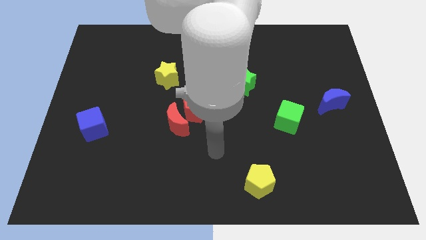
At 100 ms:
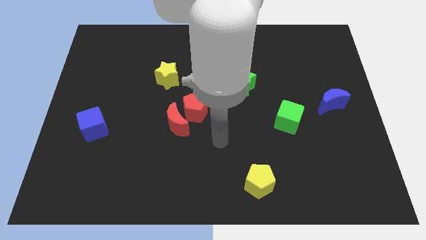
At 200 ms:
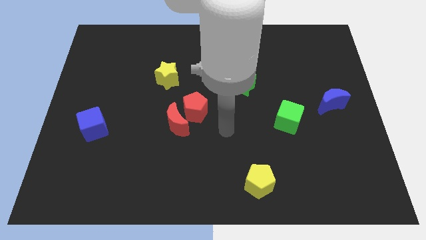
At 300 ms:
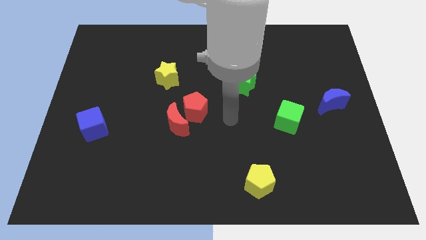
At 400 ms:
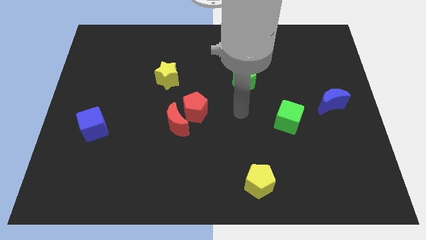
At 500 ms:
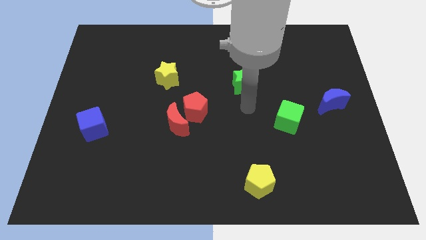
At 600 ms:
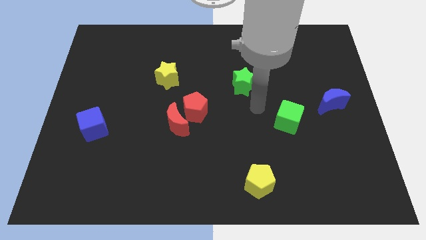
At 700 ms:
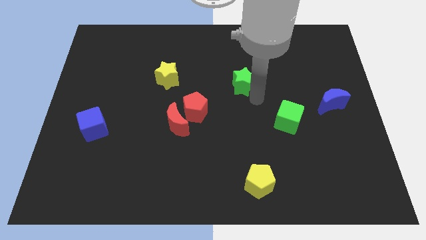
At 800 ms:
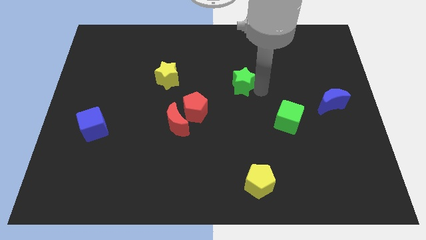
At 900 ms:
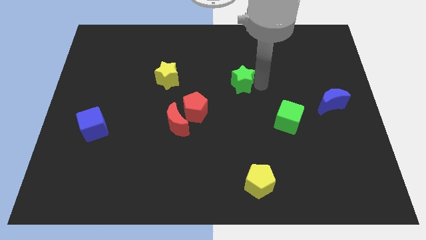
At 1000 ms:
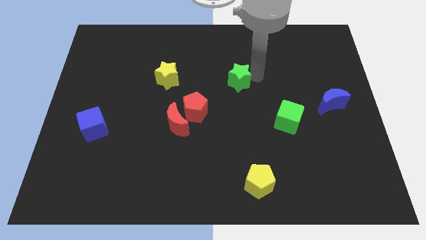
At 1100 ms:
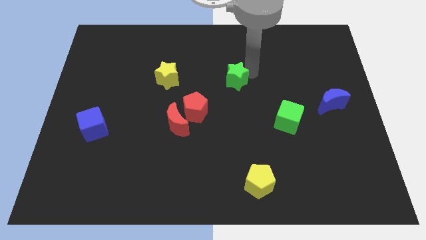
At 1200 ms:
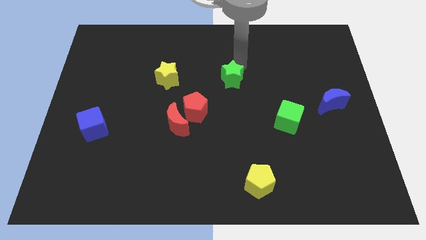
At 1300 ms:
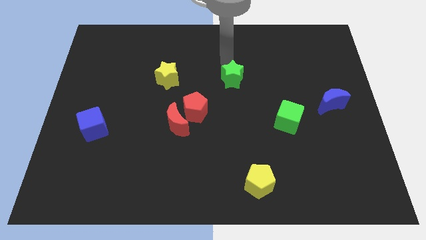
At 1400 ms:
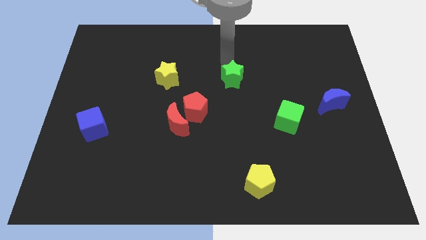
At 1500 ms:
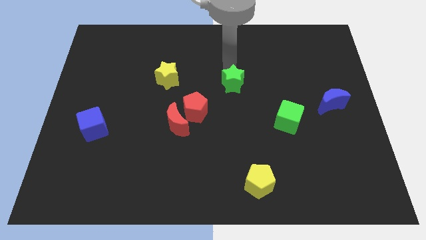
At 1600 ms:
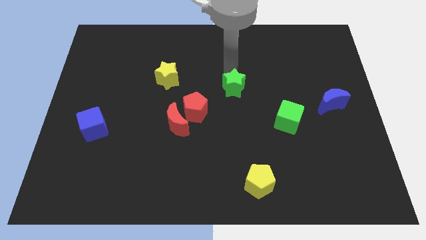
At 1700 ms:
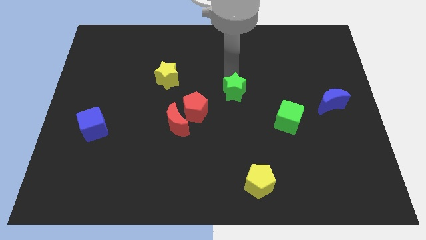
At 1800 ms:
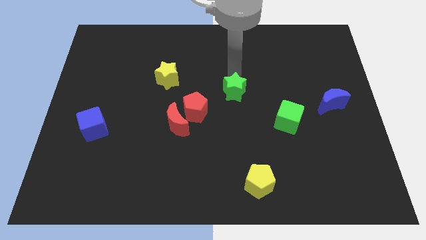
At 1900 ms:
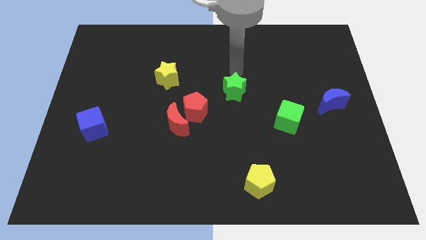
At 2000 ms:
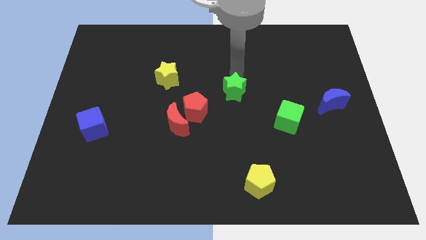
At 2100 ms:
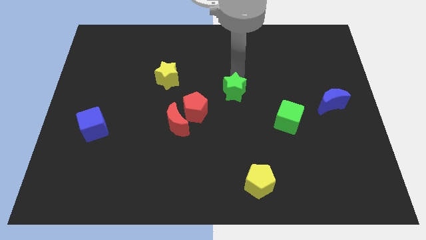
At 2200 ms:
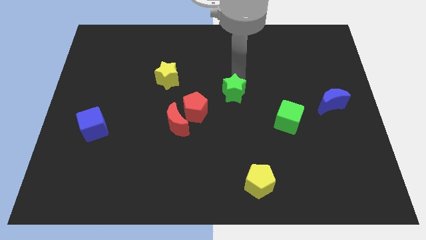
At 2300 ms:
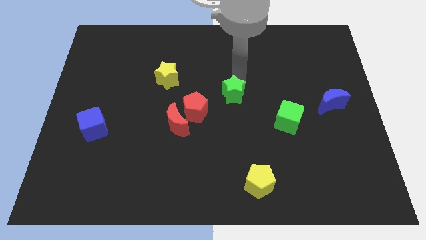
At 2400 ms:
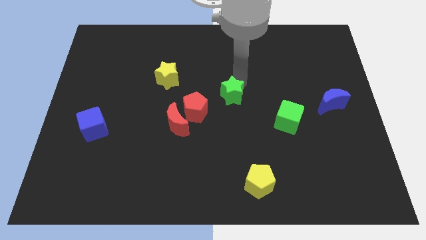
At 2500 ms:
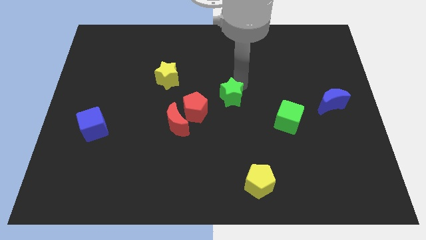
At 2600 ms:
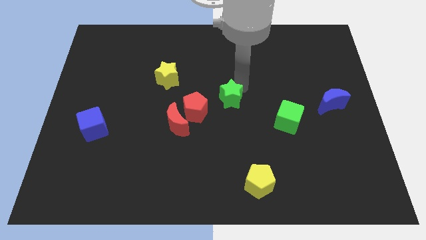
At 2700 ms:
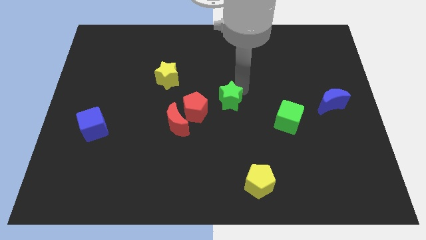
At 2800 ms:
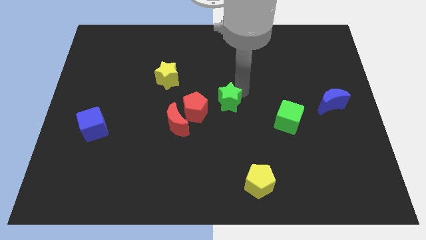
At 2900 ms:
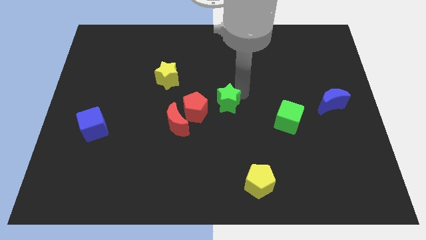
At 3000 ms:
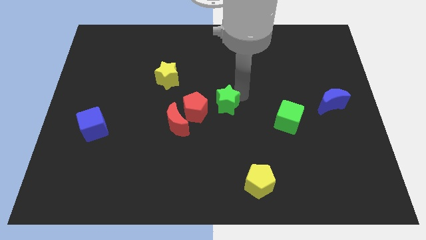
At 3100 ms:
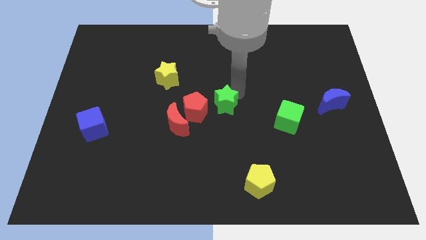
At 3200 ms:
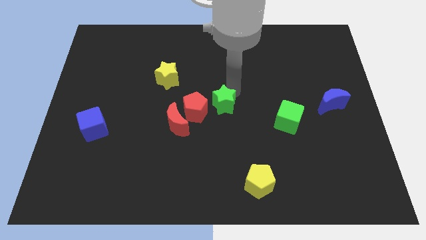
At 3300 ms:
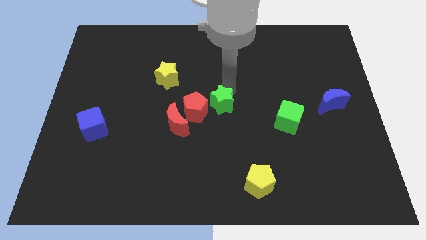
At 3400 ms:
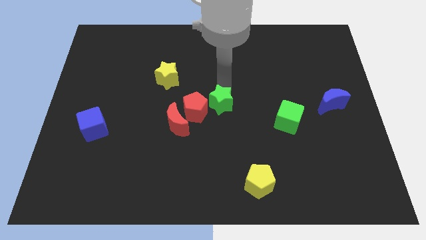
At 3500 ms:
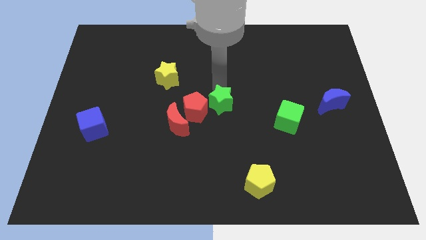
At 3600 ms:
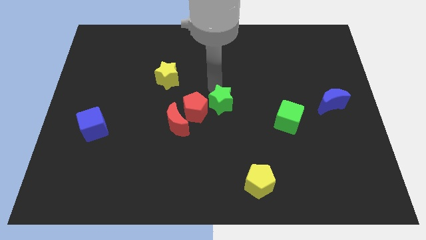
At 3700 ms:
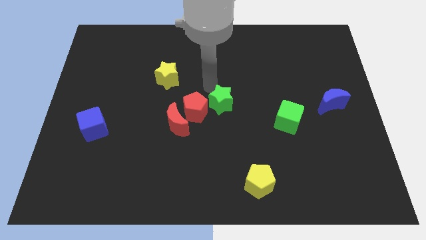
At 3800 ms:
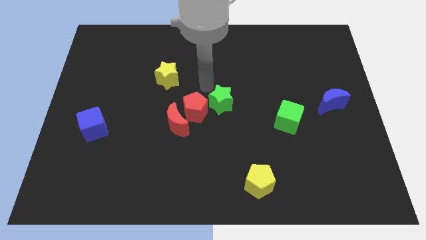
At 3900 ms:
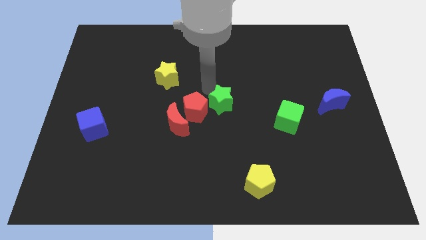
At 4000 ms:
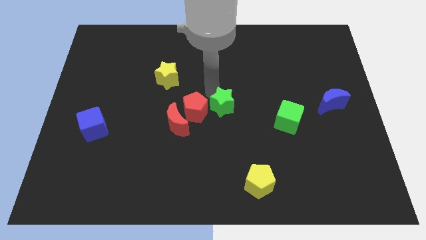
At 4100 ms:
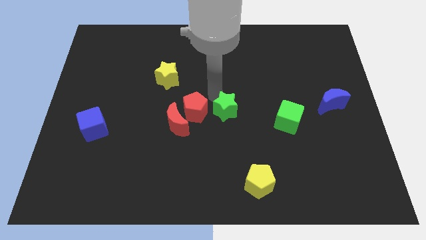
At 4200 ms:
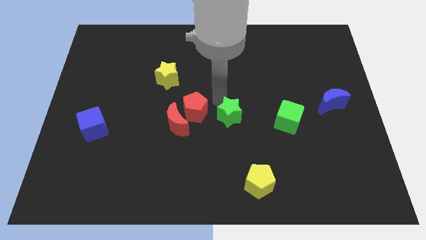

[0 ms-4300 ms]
push the green star down slightly

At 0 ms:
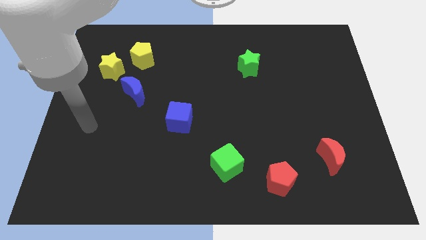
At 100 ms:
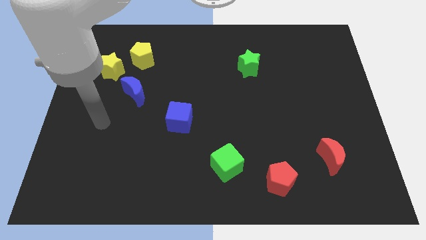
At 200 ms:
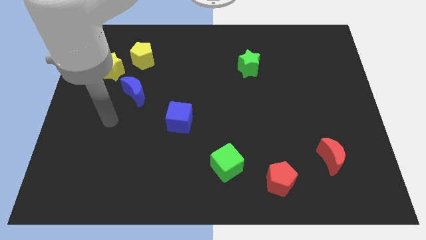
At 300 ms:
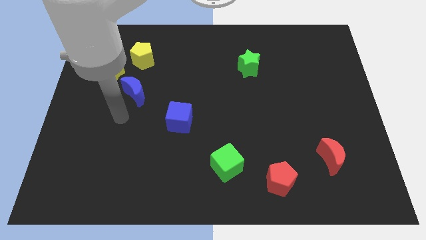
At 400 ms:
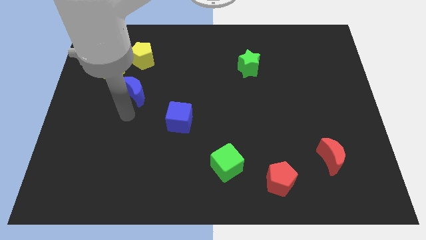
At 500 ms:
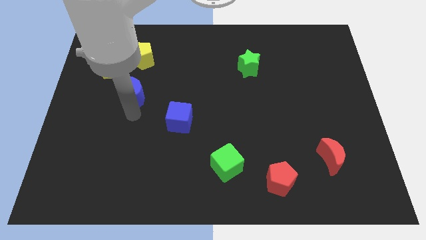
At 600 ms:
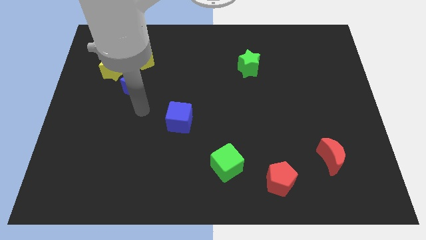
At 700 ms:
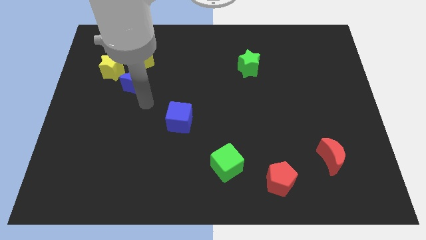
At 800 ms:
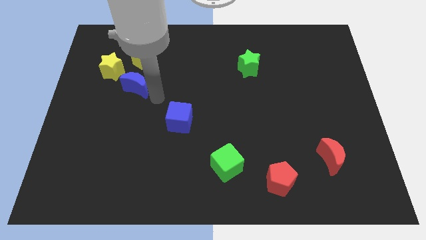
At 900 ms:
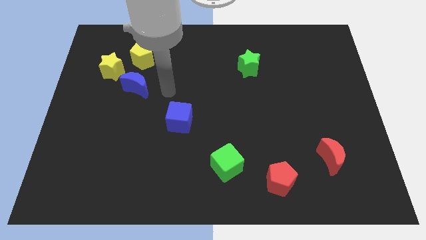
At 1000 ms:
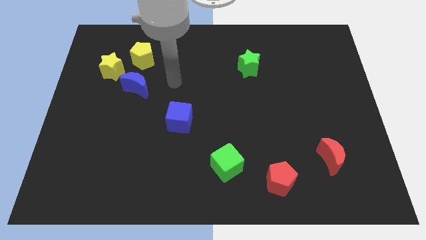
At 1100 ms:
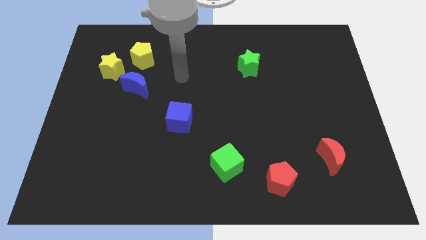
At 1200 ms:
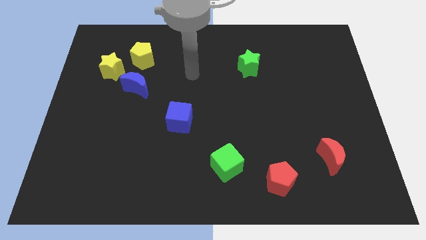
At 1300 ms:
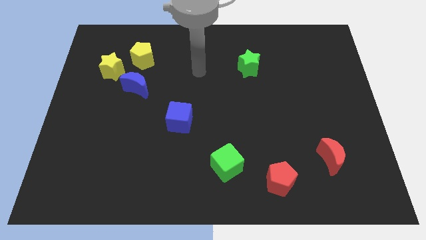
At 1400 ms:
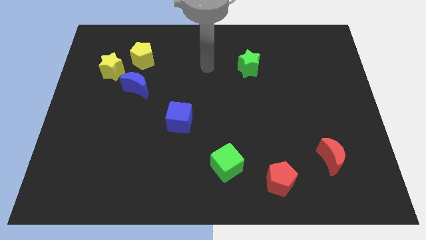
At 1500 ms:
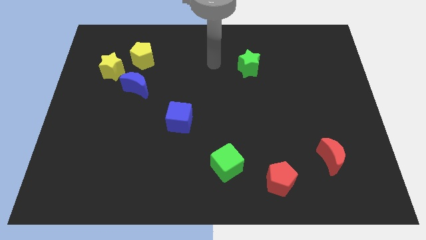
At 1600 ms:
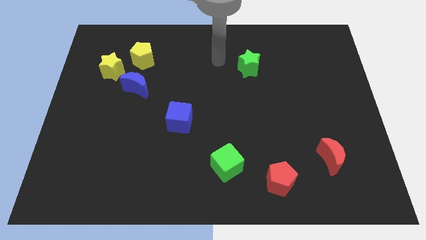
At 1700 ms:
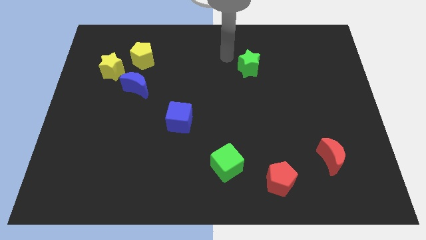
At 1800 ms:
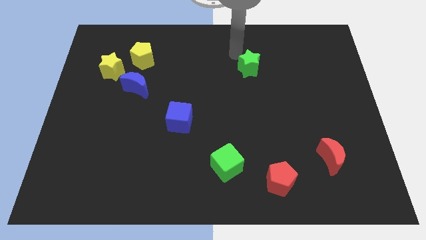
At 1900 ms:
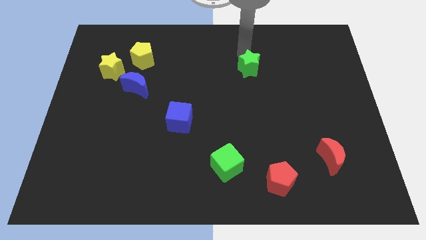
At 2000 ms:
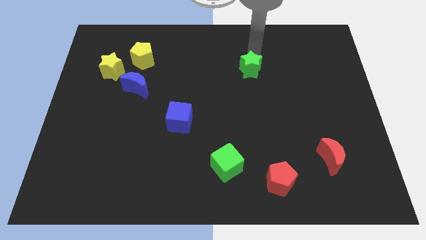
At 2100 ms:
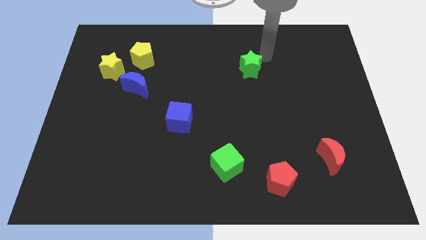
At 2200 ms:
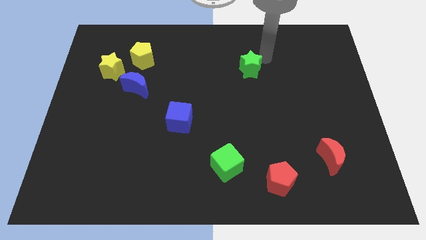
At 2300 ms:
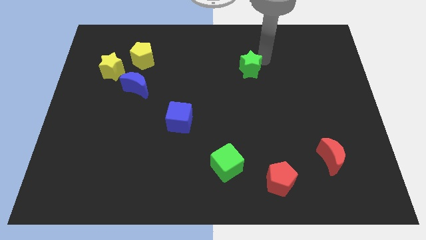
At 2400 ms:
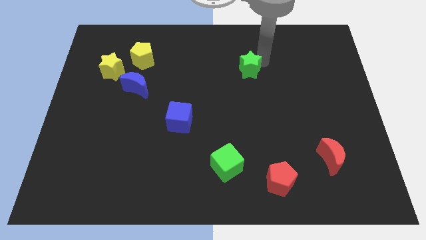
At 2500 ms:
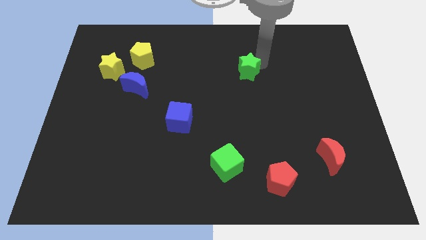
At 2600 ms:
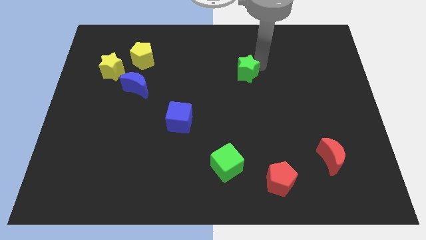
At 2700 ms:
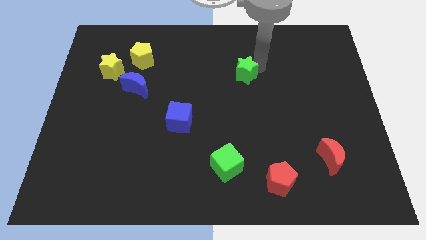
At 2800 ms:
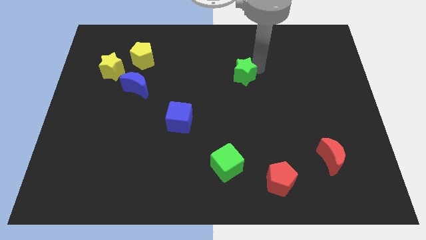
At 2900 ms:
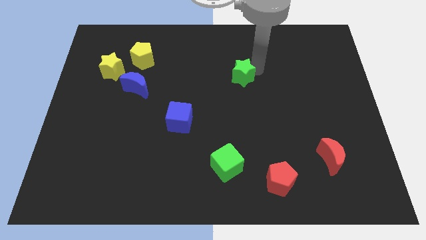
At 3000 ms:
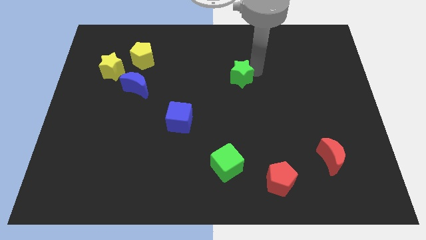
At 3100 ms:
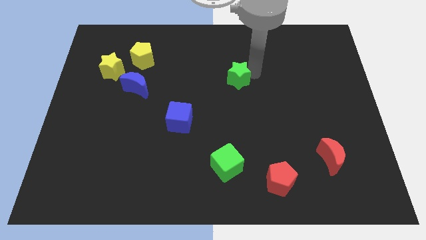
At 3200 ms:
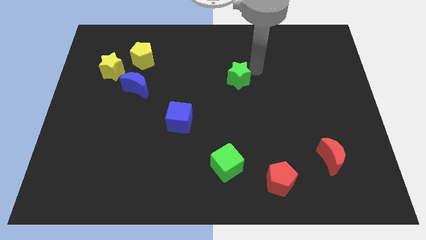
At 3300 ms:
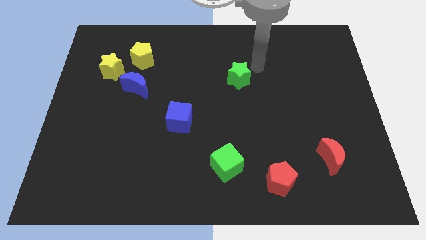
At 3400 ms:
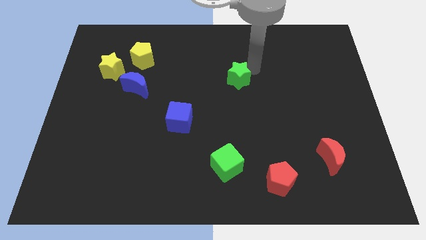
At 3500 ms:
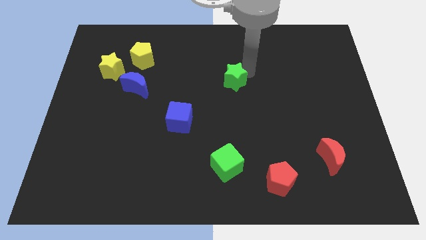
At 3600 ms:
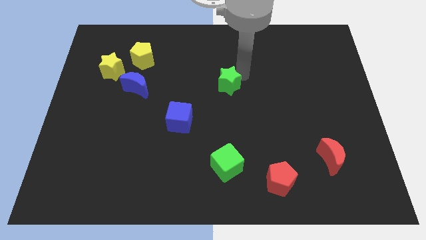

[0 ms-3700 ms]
slide the green star downwards and to the left somewhat

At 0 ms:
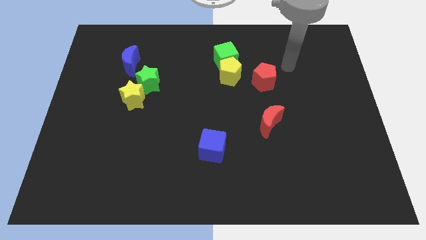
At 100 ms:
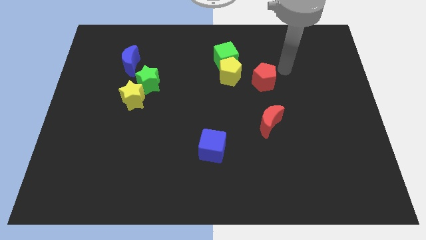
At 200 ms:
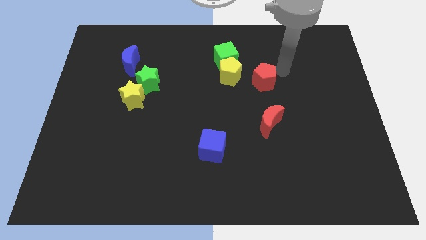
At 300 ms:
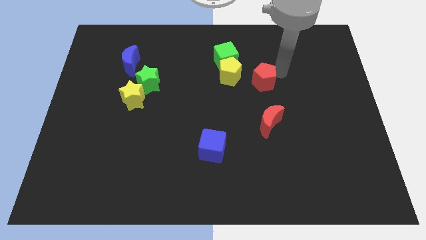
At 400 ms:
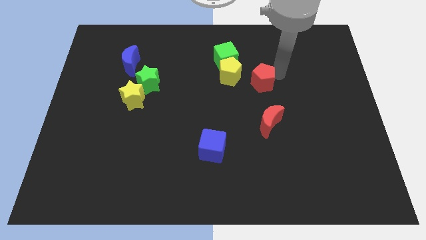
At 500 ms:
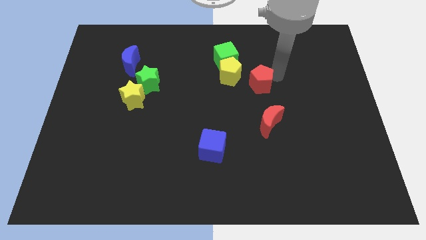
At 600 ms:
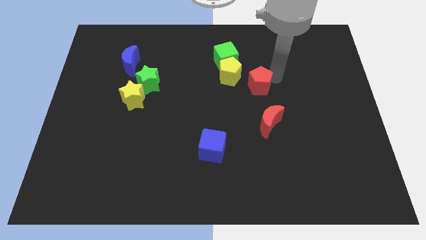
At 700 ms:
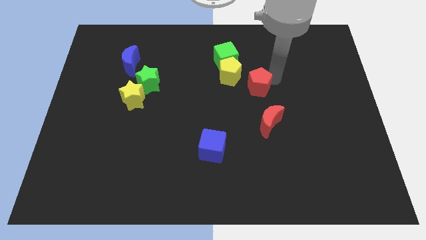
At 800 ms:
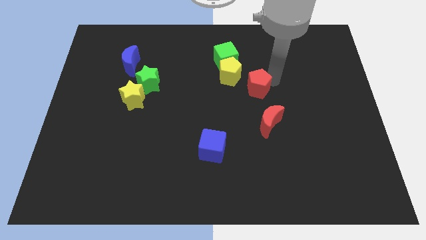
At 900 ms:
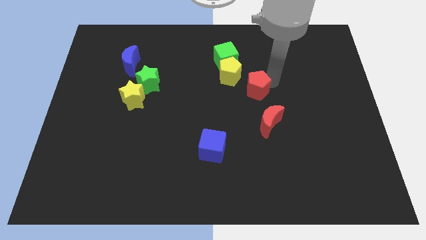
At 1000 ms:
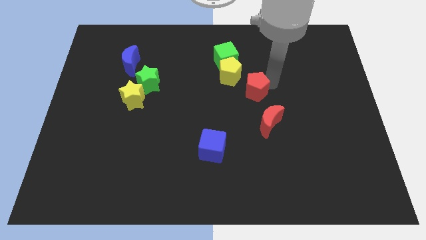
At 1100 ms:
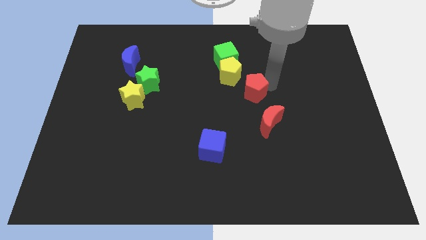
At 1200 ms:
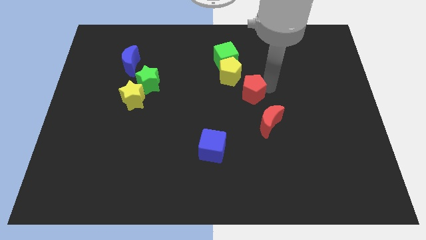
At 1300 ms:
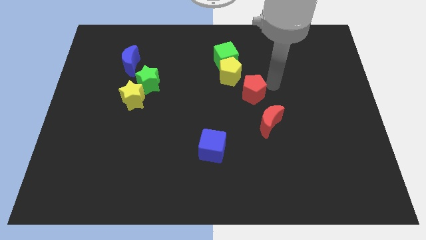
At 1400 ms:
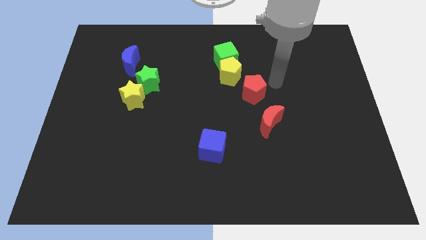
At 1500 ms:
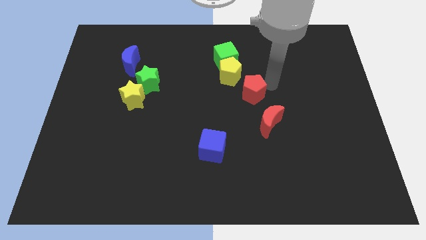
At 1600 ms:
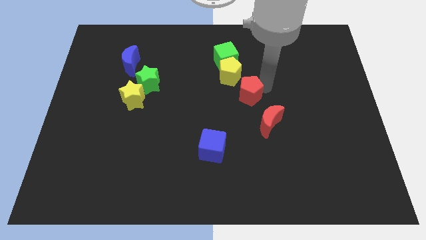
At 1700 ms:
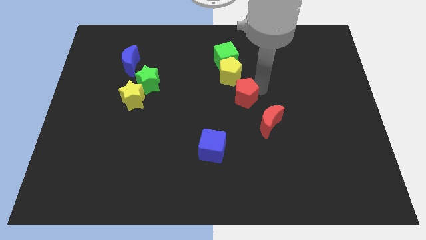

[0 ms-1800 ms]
move the red pentagon downwards and then to the left a little
